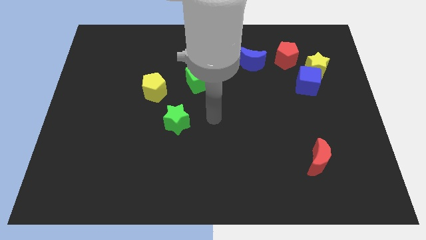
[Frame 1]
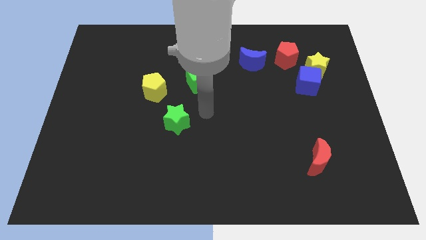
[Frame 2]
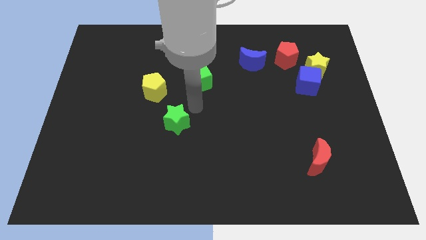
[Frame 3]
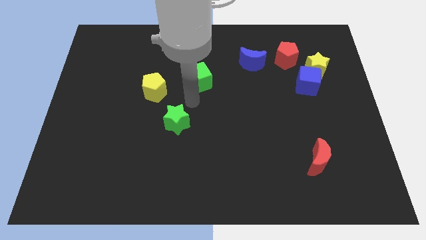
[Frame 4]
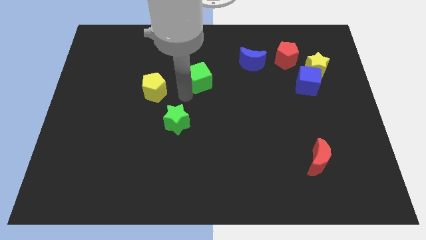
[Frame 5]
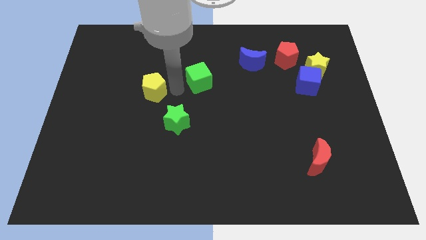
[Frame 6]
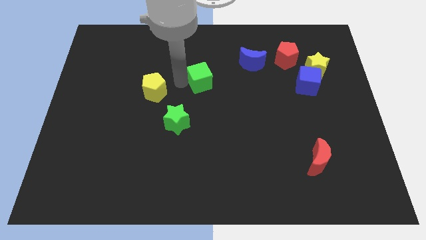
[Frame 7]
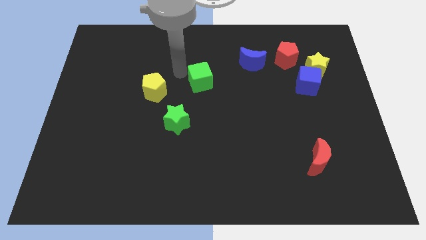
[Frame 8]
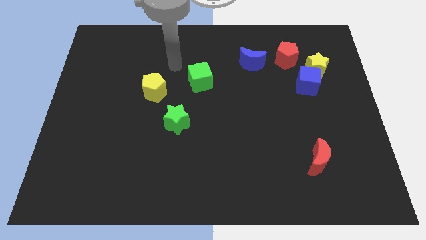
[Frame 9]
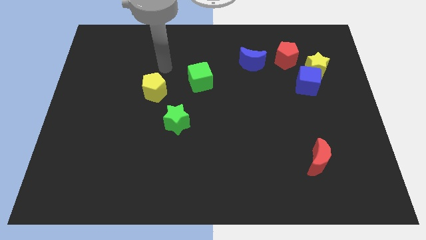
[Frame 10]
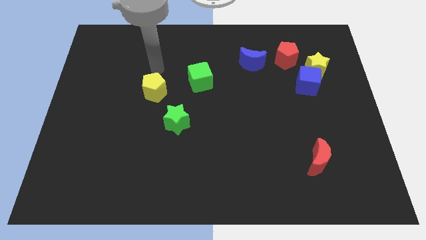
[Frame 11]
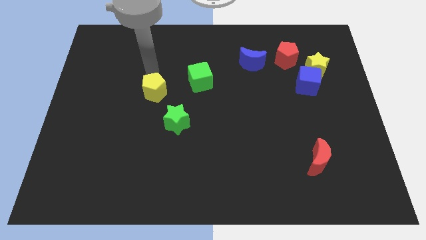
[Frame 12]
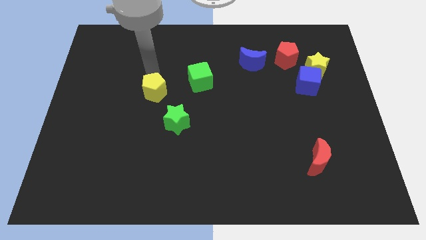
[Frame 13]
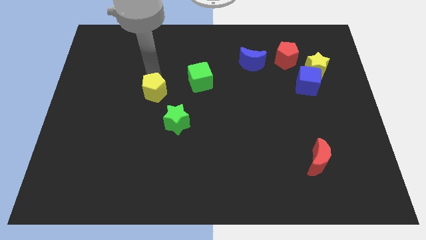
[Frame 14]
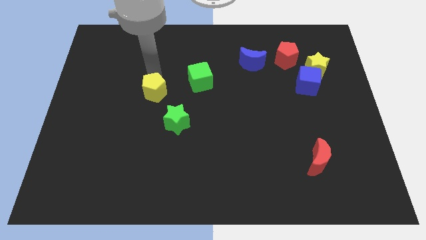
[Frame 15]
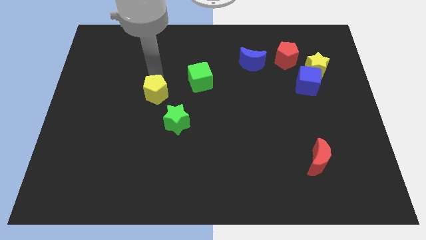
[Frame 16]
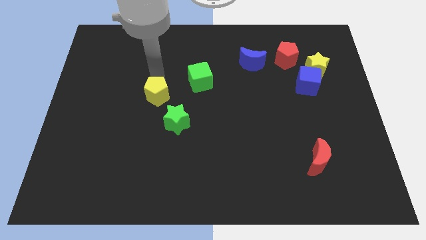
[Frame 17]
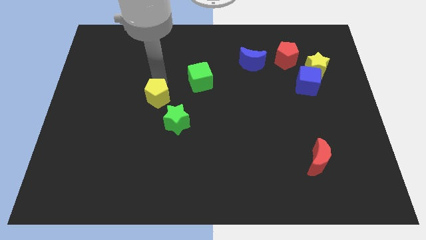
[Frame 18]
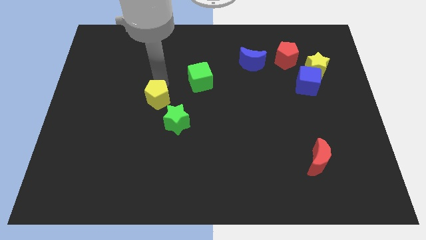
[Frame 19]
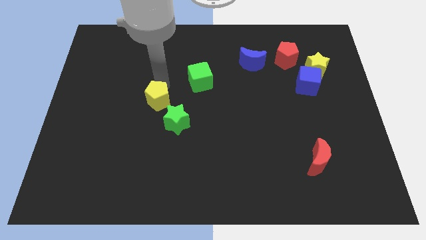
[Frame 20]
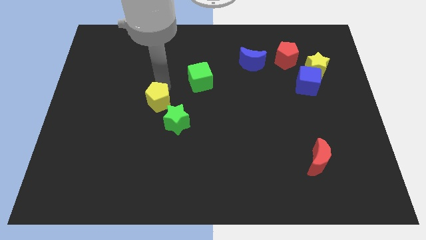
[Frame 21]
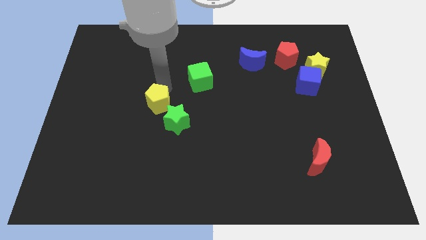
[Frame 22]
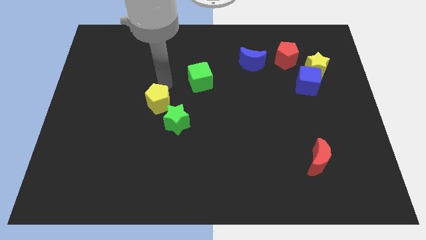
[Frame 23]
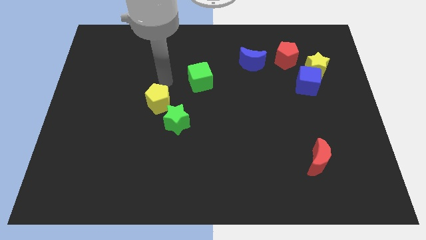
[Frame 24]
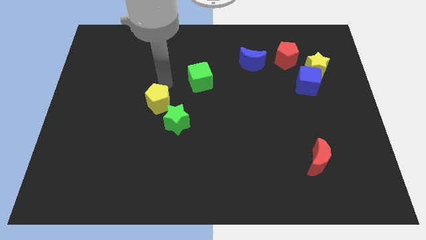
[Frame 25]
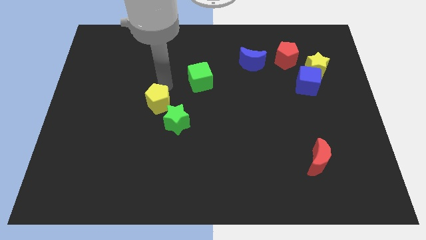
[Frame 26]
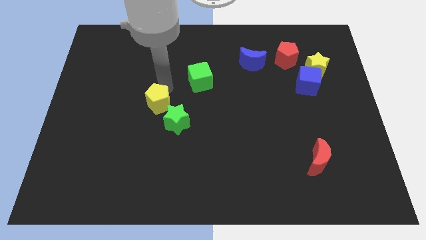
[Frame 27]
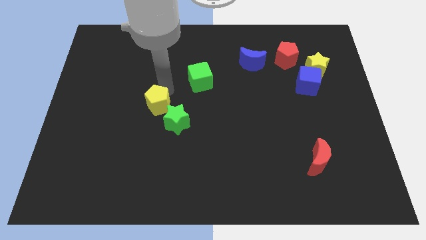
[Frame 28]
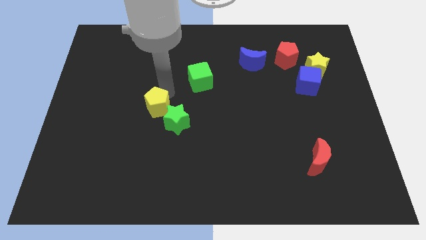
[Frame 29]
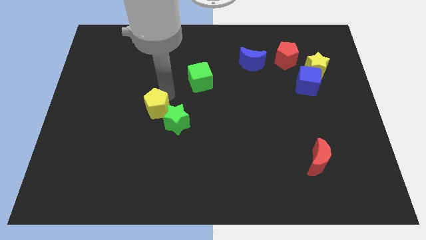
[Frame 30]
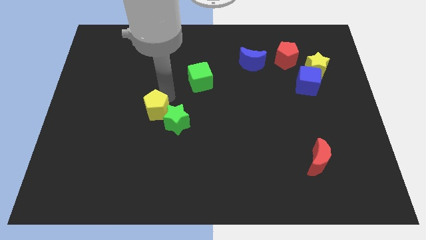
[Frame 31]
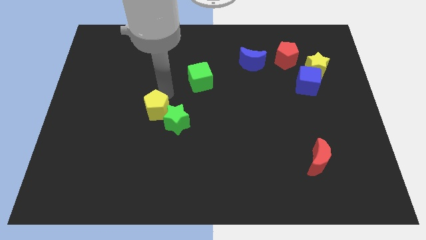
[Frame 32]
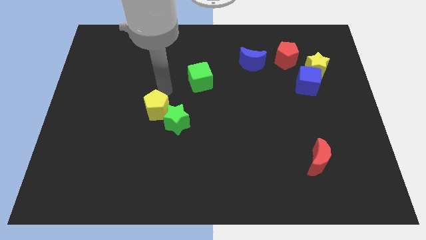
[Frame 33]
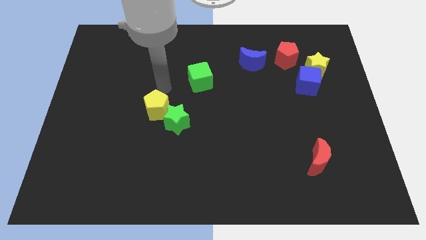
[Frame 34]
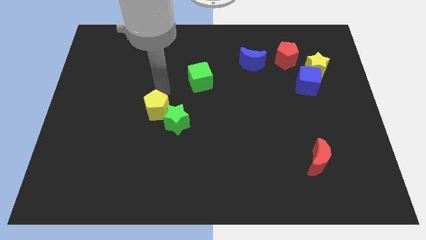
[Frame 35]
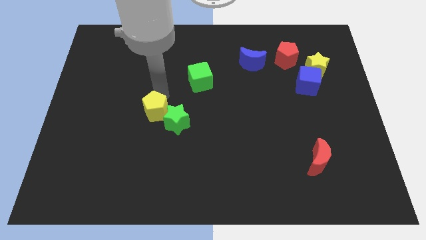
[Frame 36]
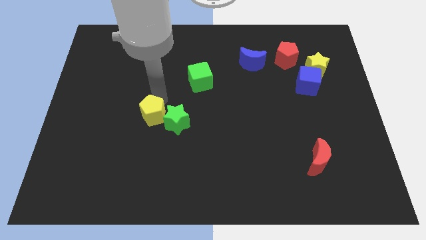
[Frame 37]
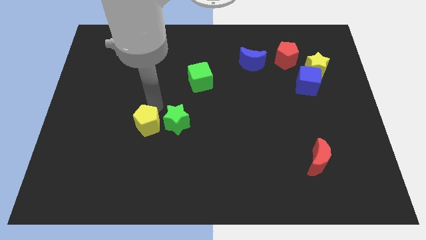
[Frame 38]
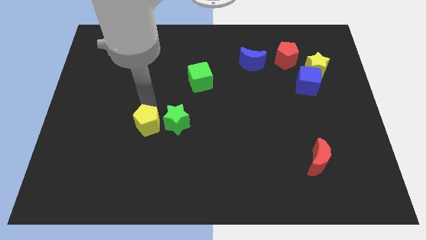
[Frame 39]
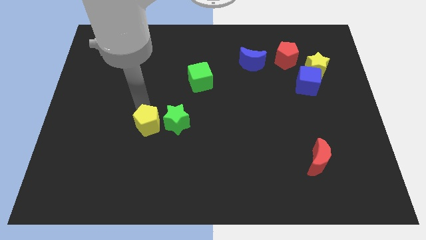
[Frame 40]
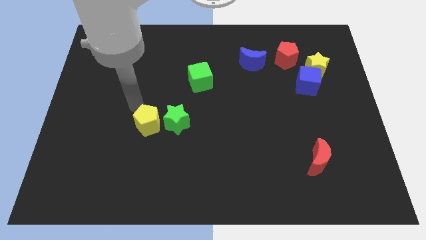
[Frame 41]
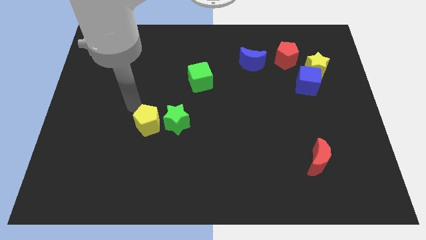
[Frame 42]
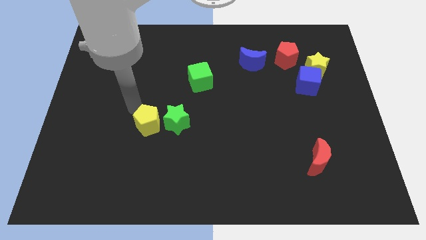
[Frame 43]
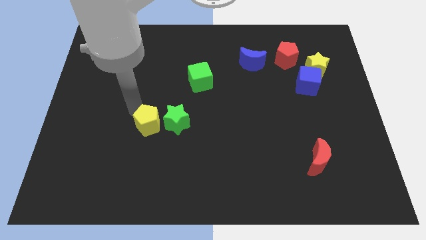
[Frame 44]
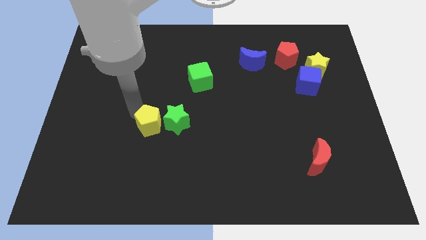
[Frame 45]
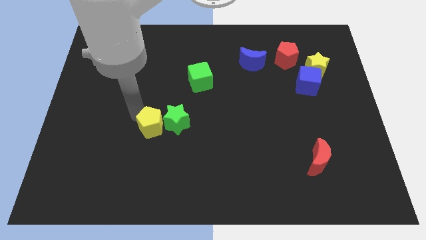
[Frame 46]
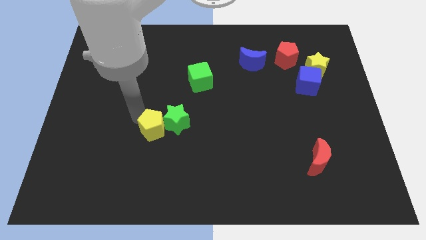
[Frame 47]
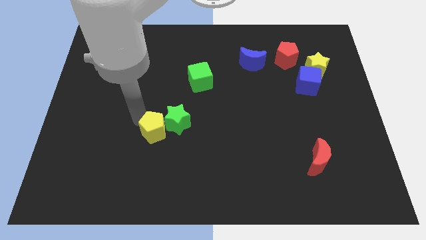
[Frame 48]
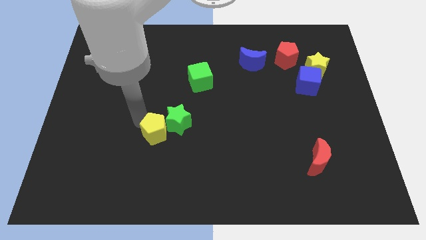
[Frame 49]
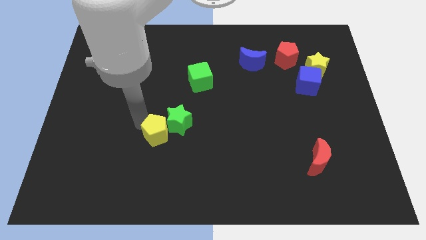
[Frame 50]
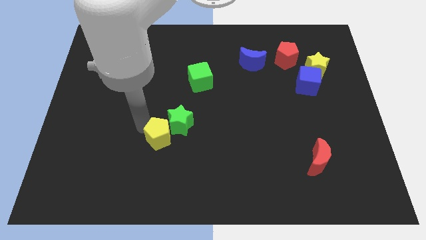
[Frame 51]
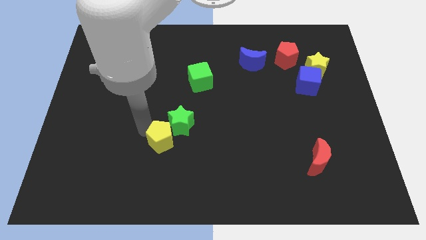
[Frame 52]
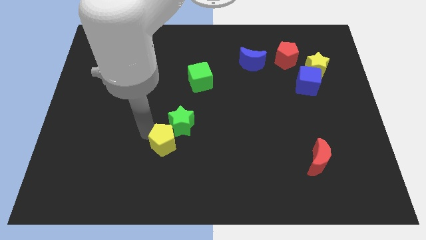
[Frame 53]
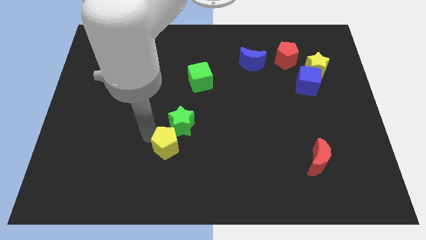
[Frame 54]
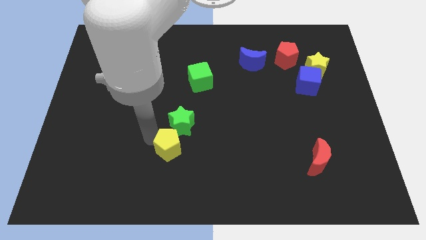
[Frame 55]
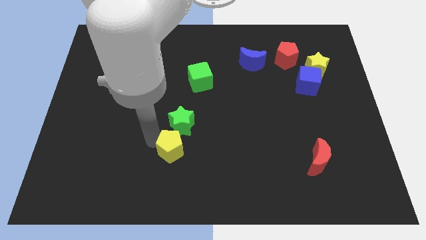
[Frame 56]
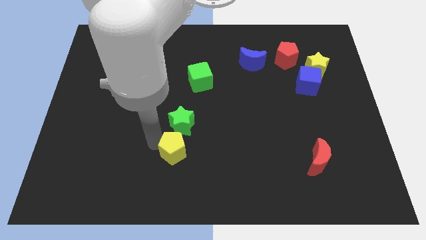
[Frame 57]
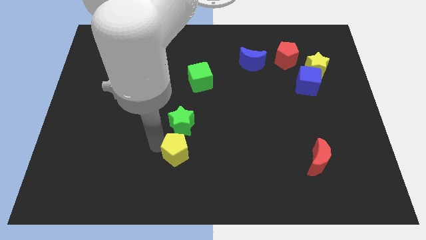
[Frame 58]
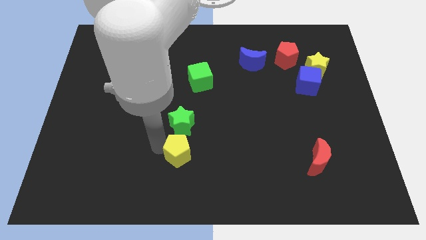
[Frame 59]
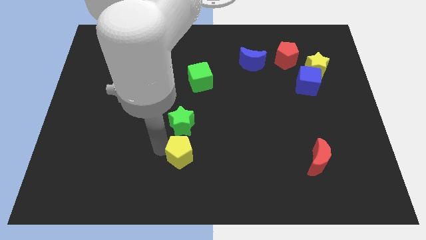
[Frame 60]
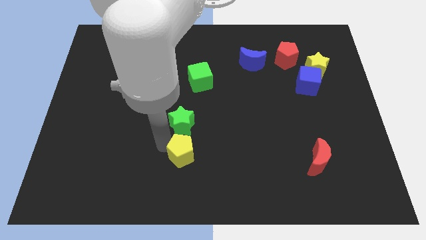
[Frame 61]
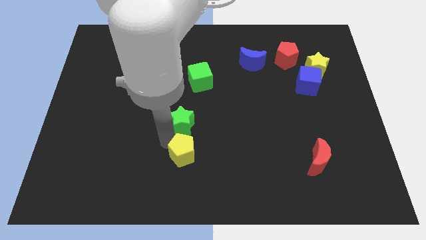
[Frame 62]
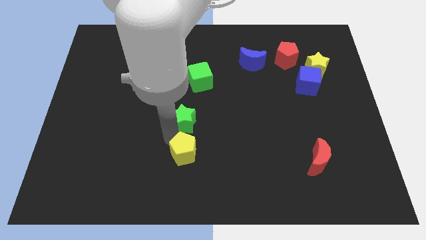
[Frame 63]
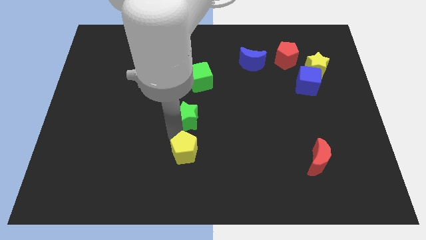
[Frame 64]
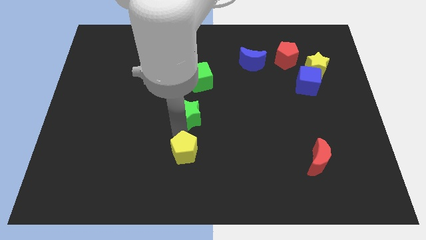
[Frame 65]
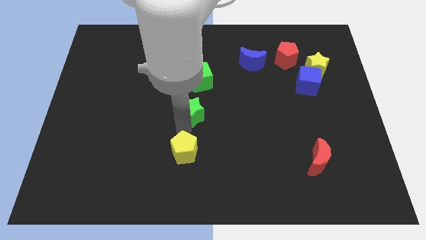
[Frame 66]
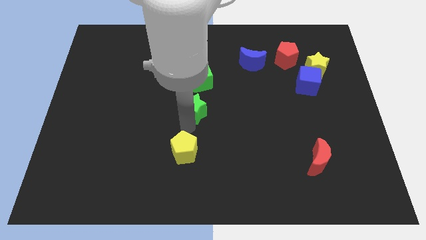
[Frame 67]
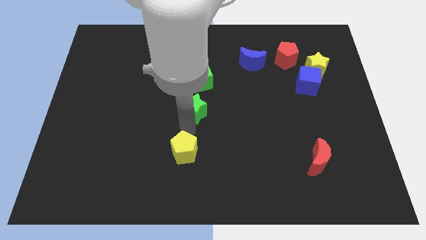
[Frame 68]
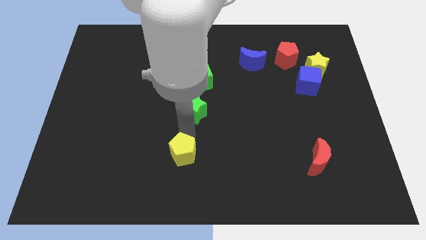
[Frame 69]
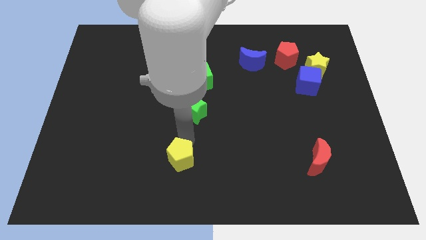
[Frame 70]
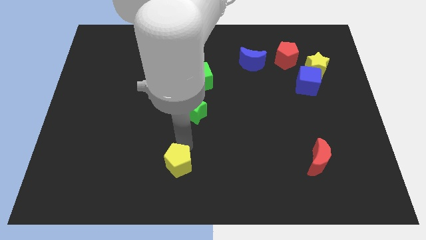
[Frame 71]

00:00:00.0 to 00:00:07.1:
push the yellow pentagon to the bottom side
